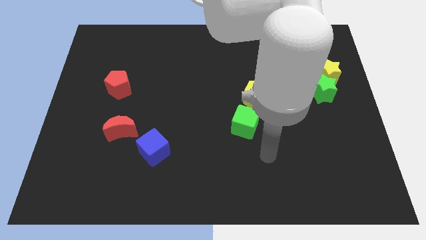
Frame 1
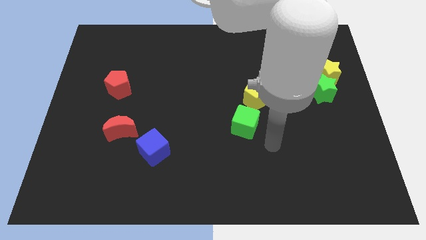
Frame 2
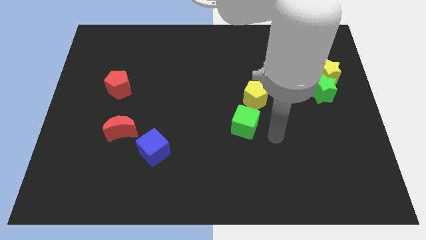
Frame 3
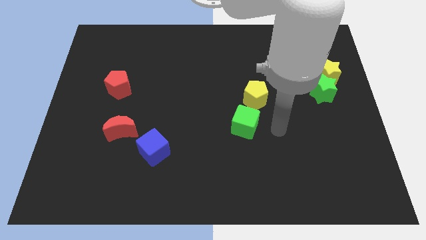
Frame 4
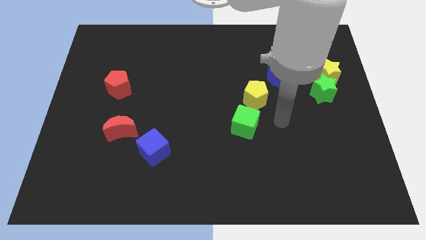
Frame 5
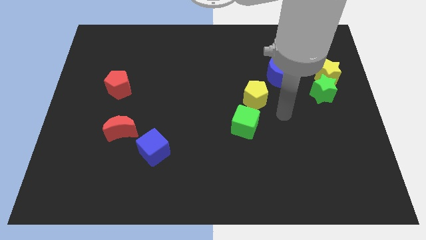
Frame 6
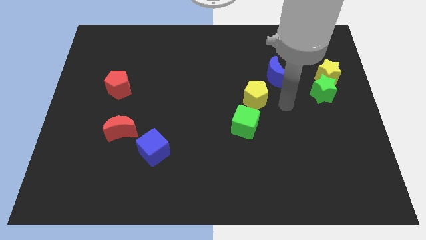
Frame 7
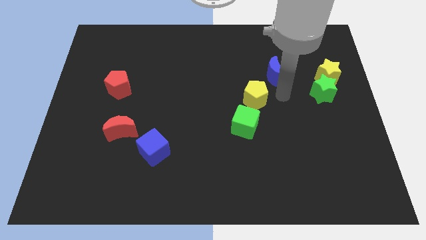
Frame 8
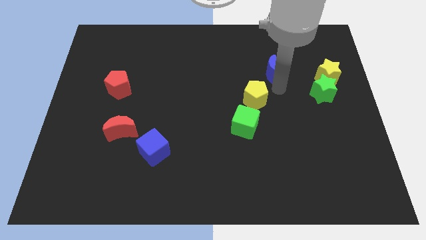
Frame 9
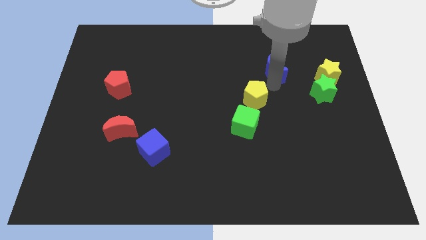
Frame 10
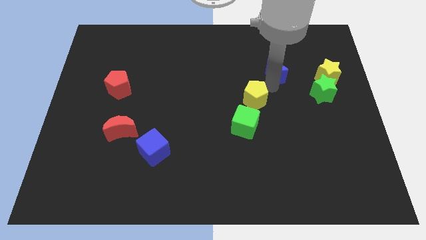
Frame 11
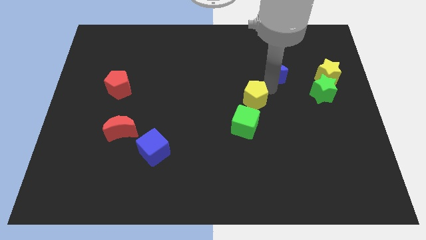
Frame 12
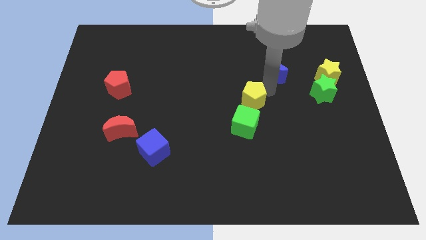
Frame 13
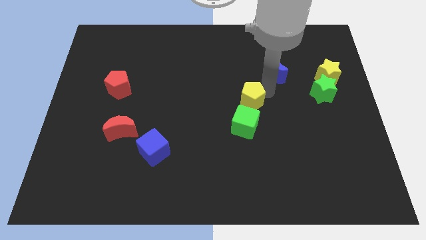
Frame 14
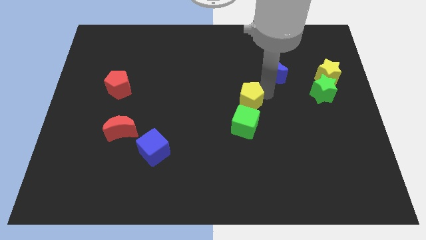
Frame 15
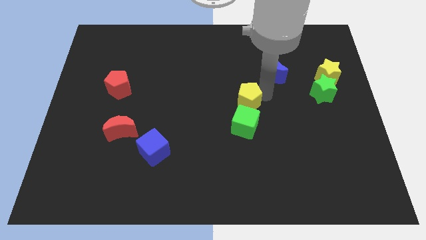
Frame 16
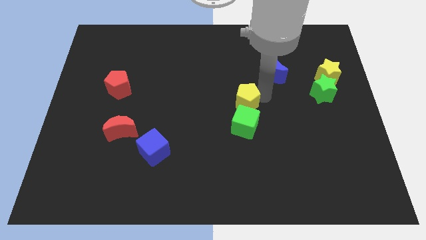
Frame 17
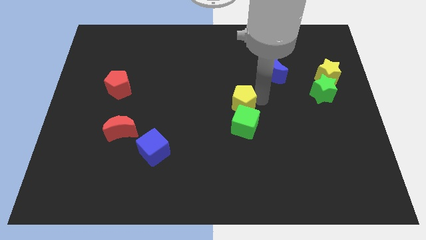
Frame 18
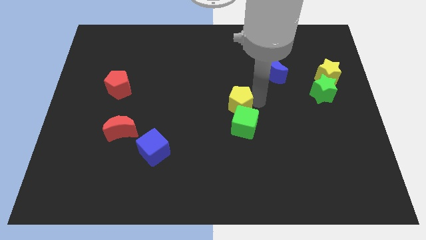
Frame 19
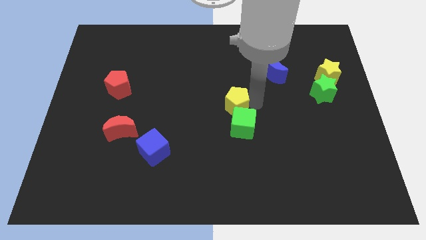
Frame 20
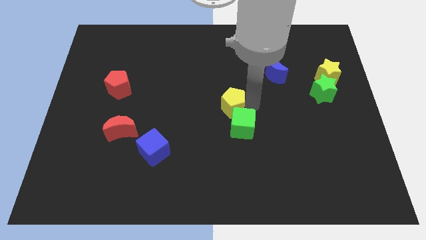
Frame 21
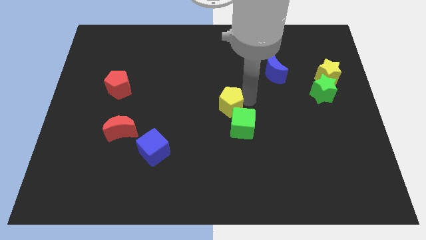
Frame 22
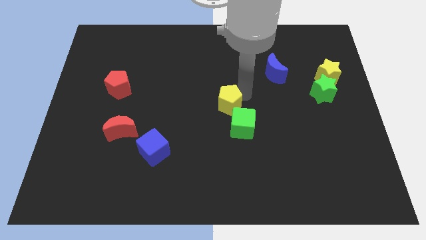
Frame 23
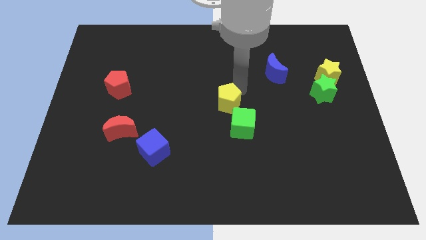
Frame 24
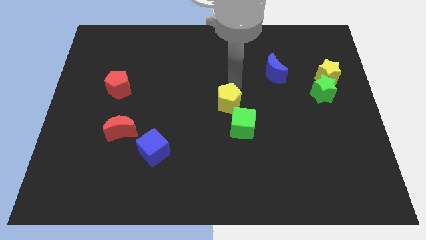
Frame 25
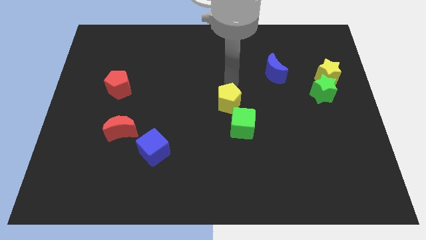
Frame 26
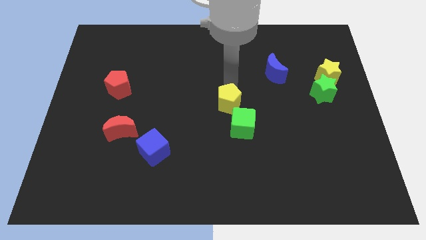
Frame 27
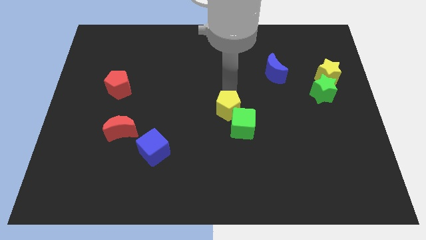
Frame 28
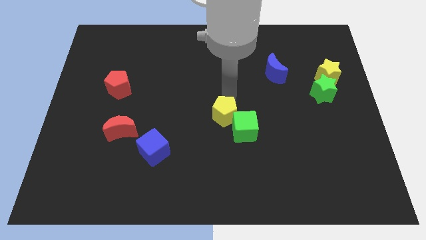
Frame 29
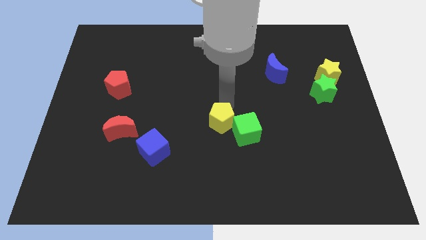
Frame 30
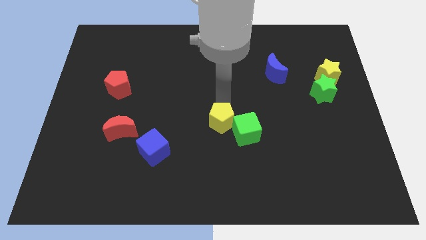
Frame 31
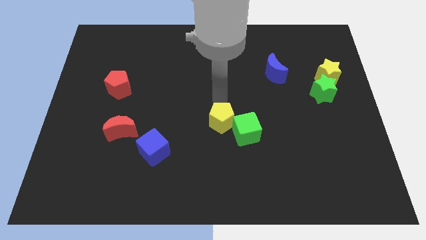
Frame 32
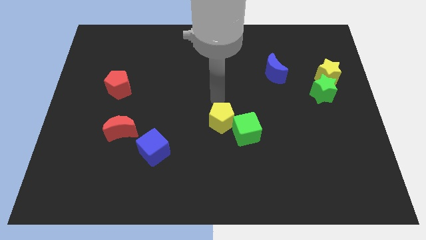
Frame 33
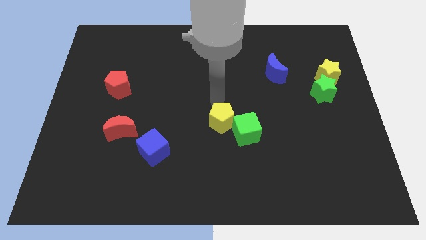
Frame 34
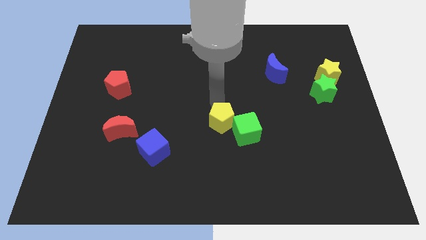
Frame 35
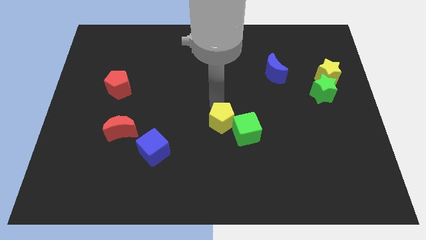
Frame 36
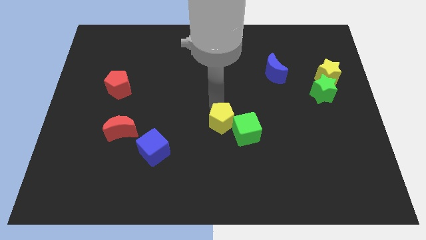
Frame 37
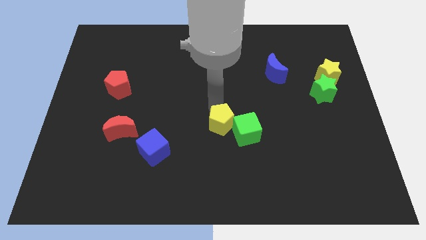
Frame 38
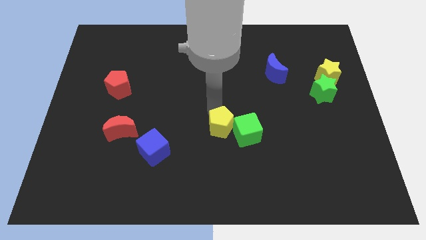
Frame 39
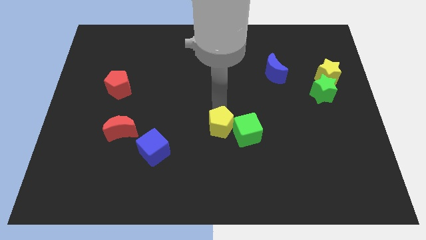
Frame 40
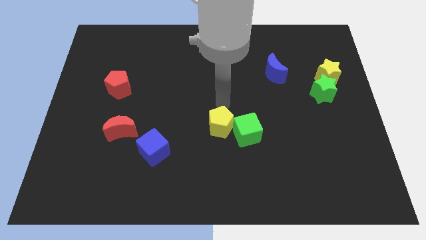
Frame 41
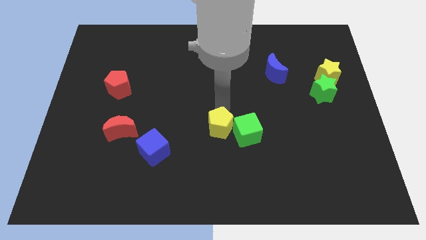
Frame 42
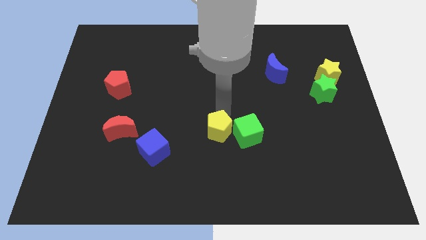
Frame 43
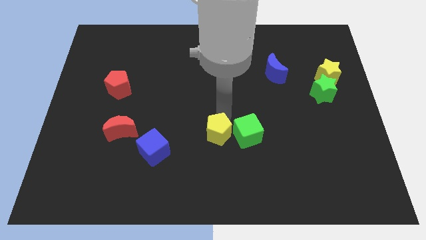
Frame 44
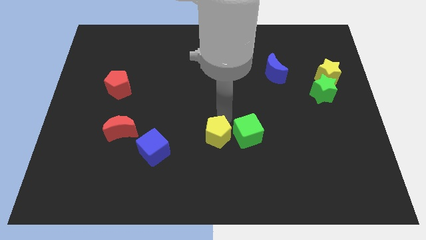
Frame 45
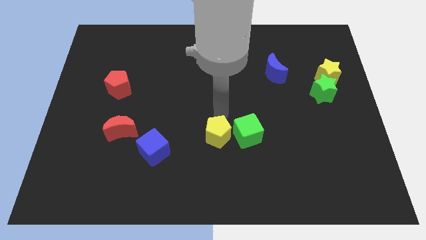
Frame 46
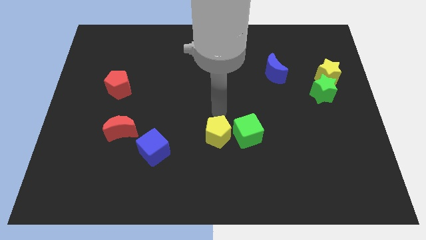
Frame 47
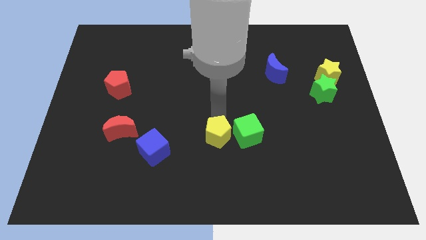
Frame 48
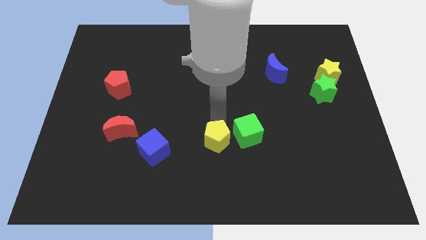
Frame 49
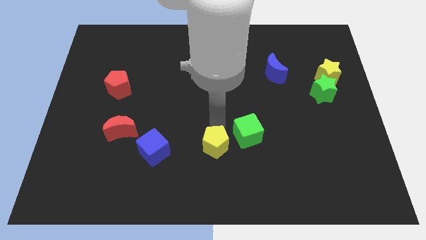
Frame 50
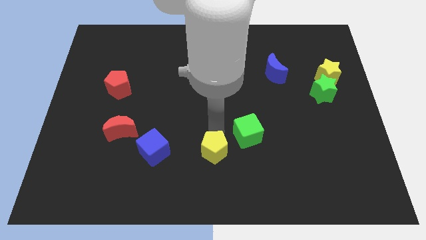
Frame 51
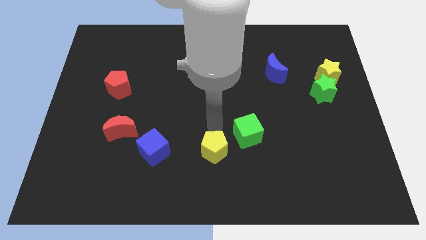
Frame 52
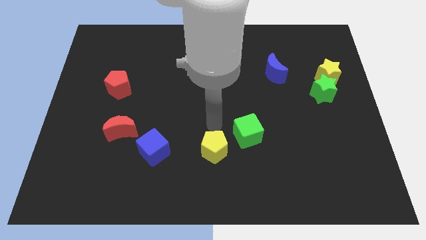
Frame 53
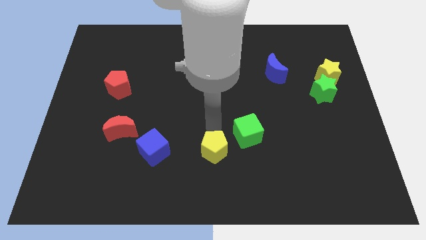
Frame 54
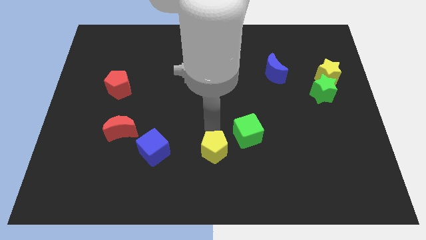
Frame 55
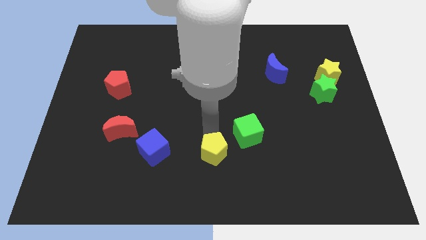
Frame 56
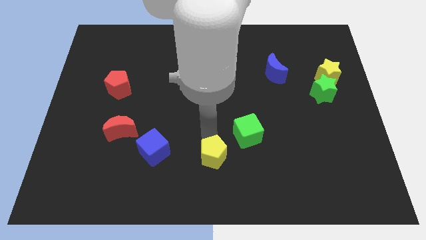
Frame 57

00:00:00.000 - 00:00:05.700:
slide the yellow pentagon to the bottom side
